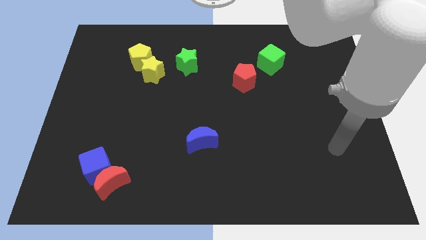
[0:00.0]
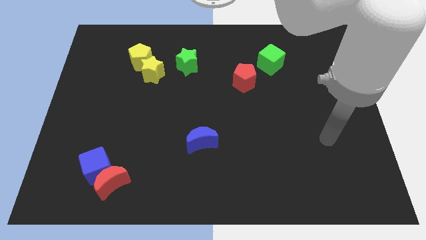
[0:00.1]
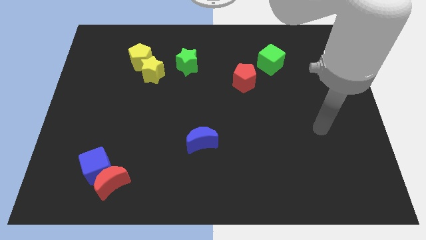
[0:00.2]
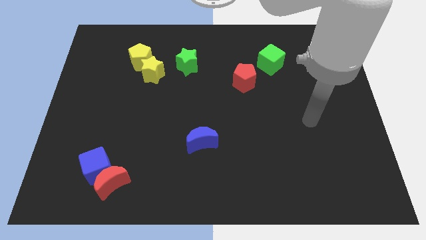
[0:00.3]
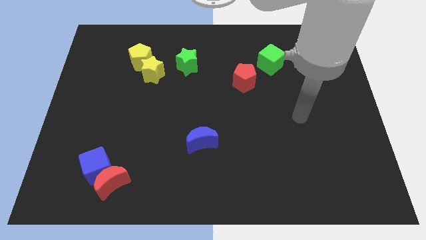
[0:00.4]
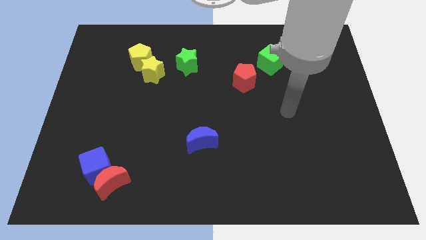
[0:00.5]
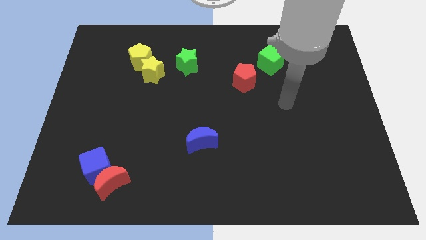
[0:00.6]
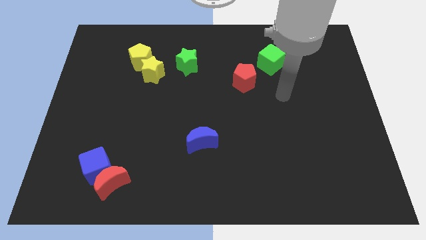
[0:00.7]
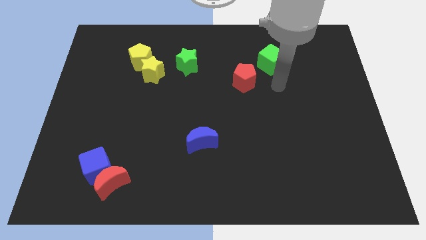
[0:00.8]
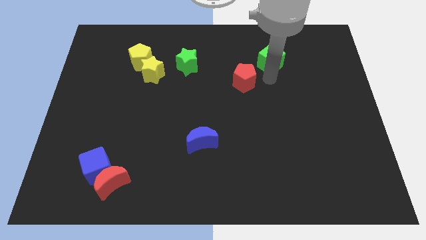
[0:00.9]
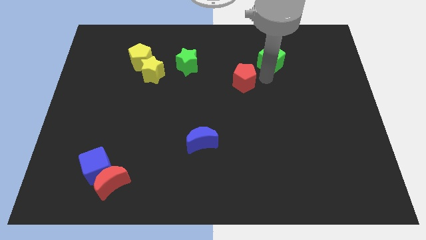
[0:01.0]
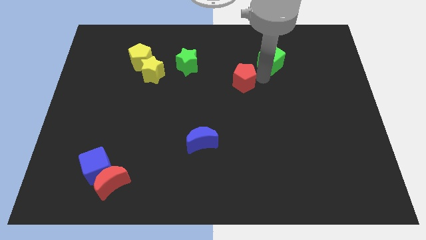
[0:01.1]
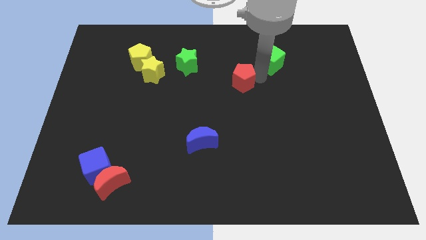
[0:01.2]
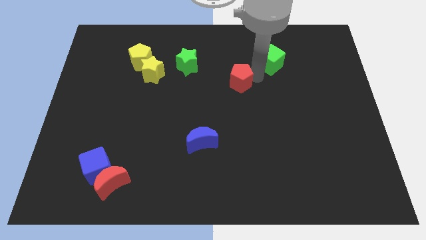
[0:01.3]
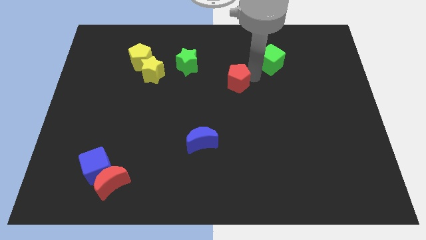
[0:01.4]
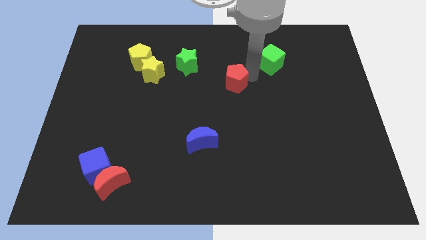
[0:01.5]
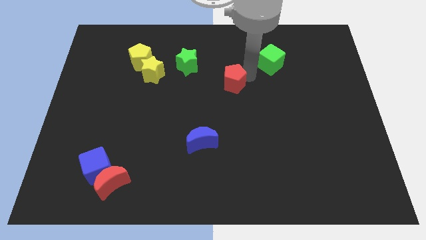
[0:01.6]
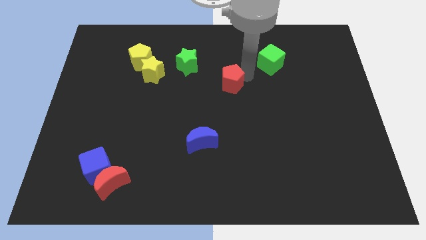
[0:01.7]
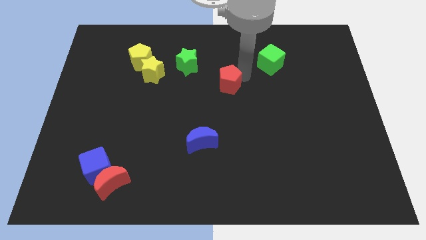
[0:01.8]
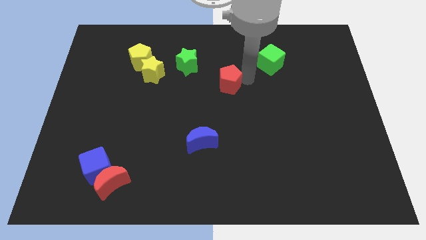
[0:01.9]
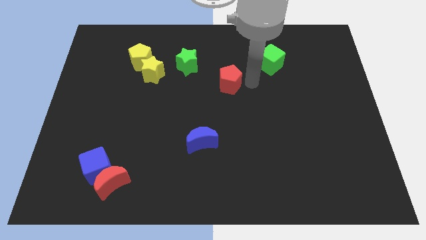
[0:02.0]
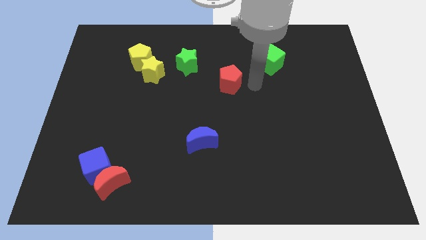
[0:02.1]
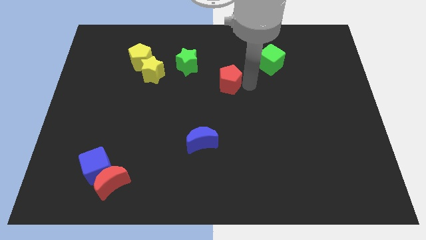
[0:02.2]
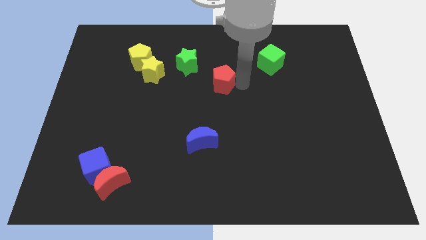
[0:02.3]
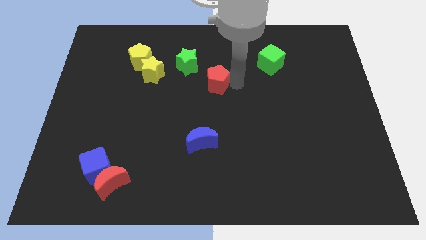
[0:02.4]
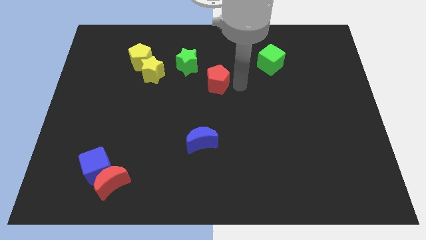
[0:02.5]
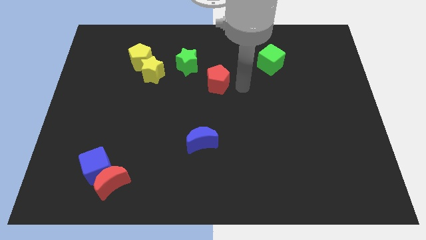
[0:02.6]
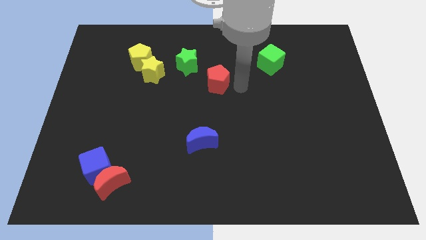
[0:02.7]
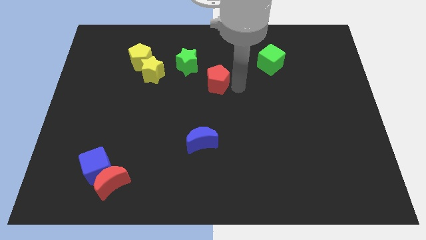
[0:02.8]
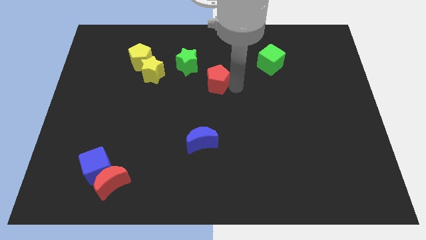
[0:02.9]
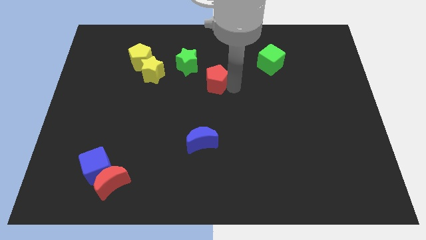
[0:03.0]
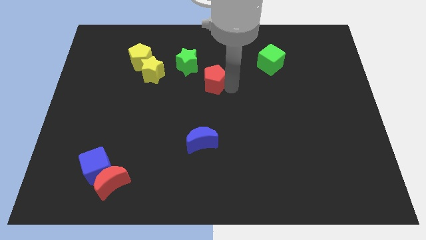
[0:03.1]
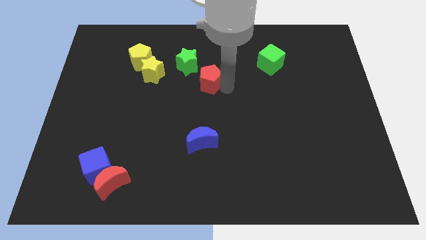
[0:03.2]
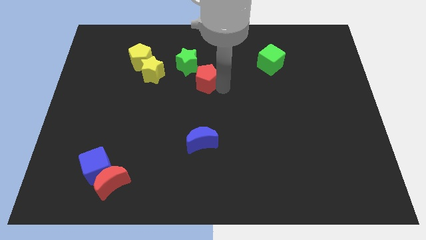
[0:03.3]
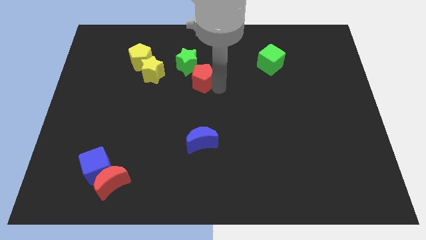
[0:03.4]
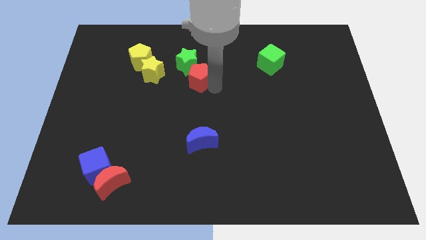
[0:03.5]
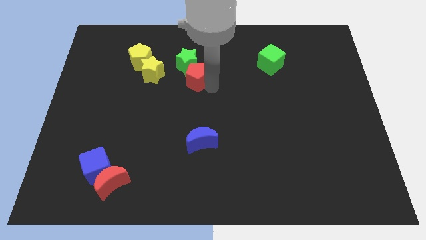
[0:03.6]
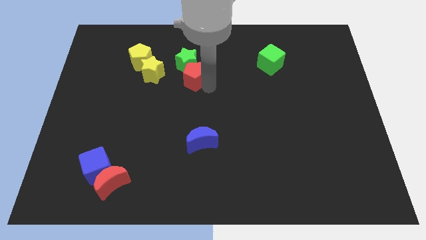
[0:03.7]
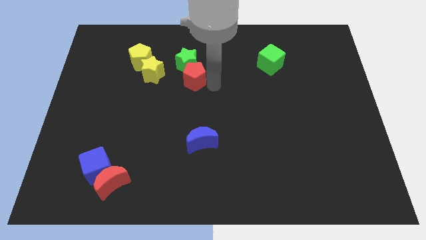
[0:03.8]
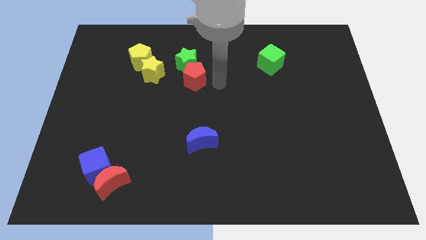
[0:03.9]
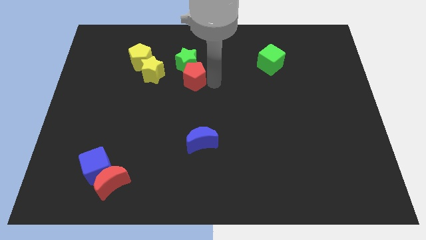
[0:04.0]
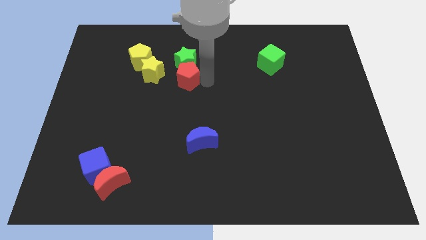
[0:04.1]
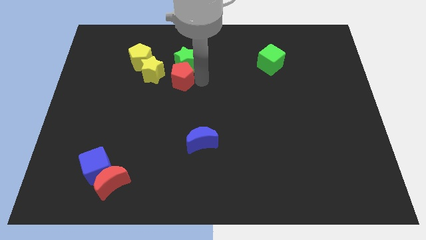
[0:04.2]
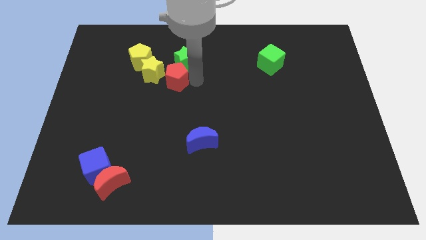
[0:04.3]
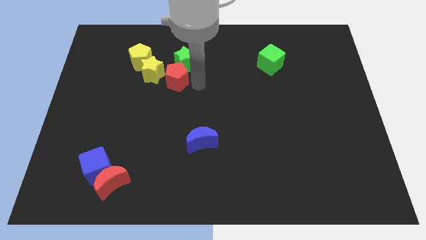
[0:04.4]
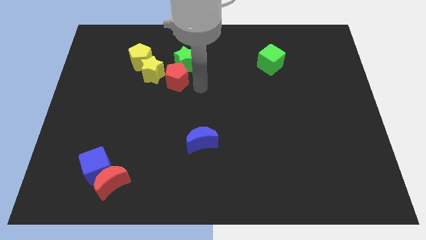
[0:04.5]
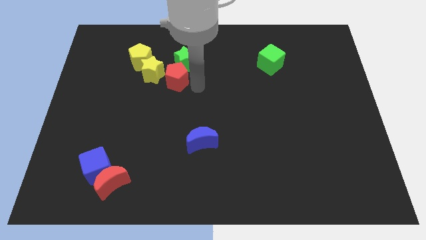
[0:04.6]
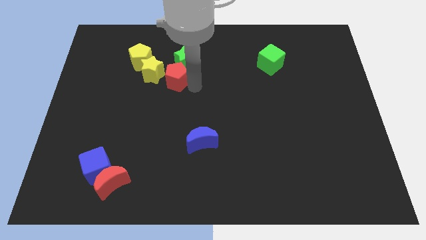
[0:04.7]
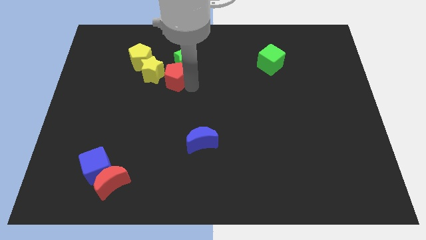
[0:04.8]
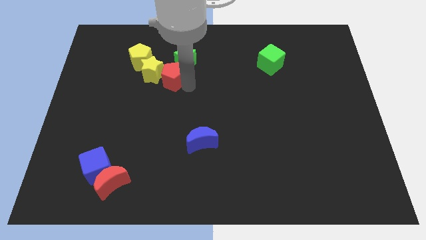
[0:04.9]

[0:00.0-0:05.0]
slide the red pentagon next to the yellow star

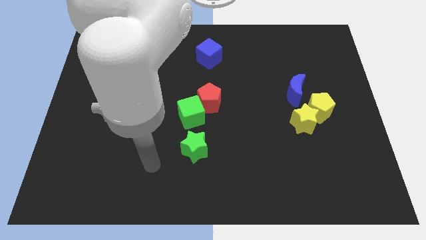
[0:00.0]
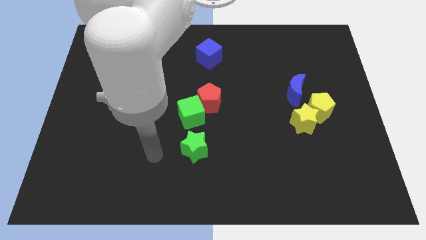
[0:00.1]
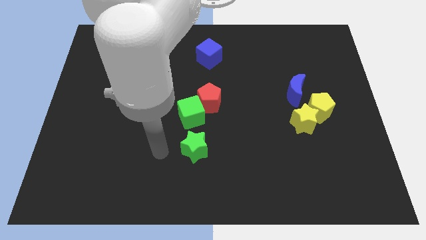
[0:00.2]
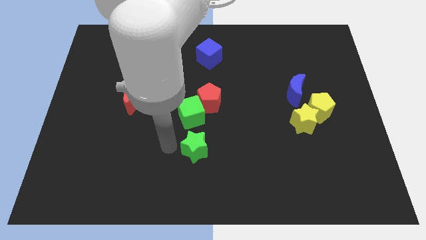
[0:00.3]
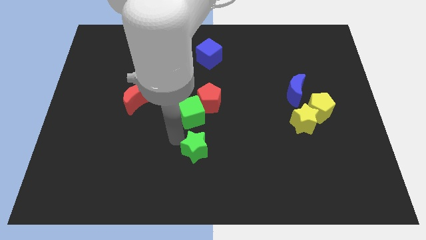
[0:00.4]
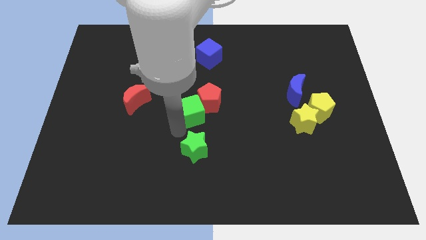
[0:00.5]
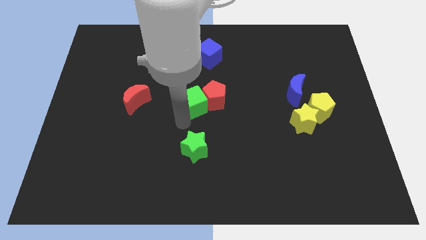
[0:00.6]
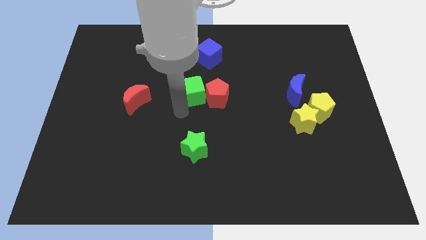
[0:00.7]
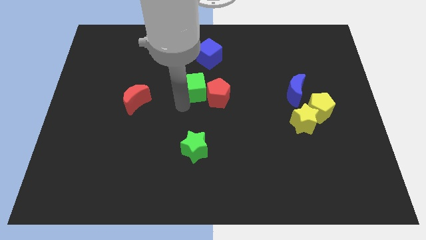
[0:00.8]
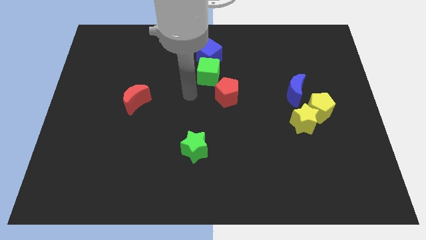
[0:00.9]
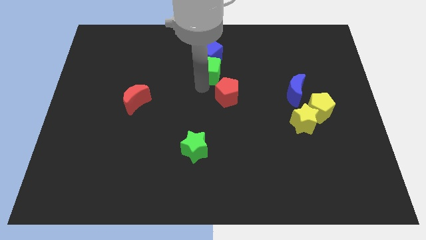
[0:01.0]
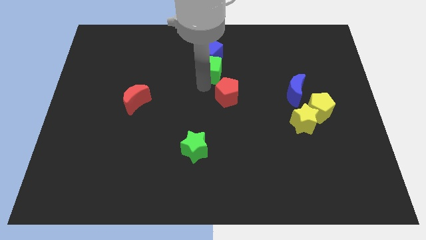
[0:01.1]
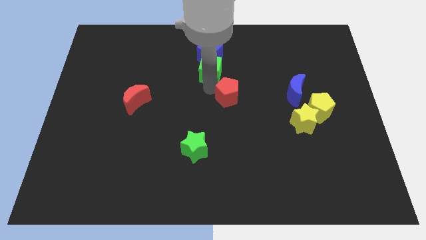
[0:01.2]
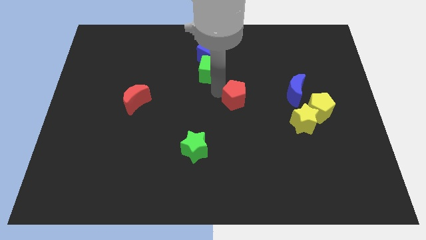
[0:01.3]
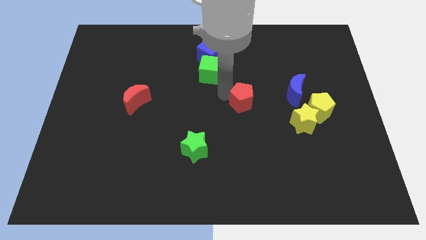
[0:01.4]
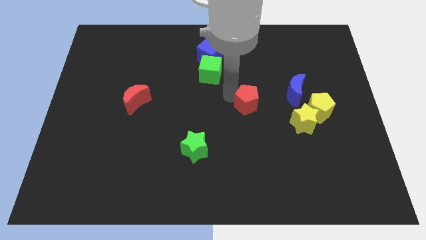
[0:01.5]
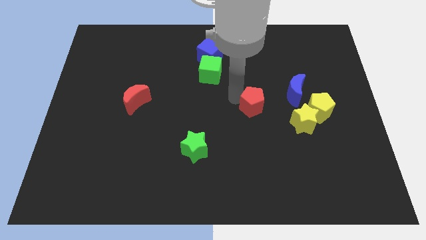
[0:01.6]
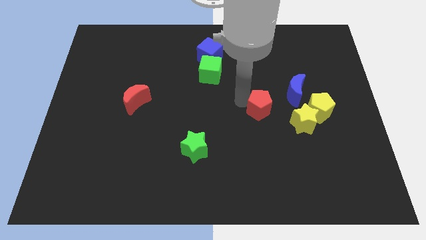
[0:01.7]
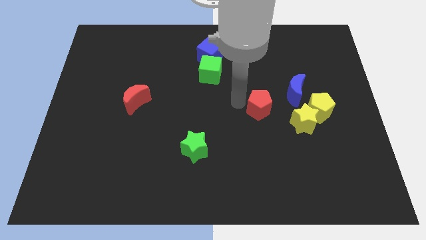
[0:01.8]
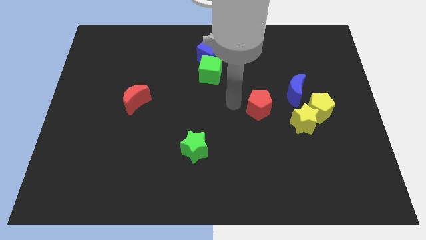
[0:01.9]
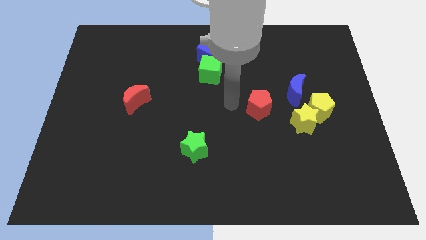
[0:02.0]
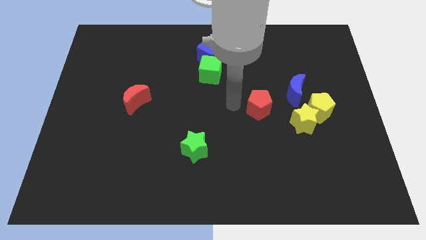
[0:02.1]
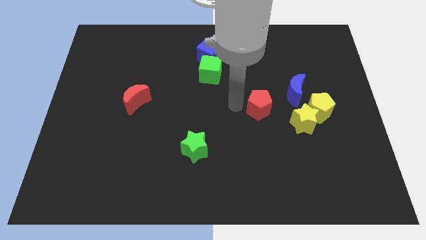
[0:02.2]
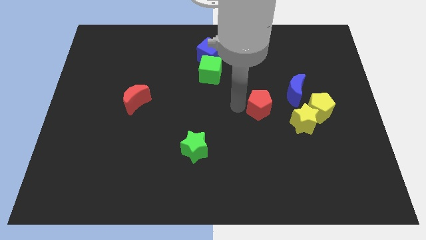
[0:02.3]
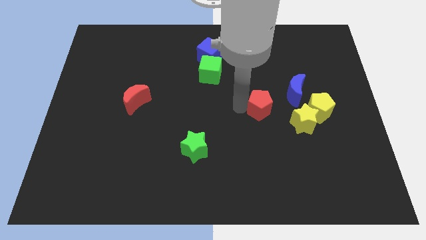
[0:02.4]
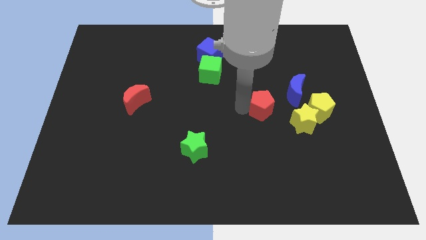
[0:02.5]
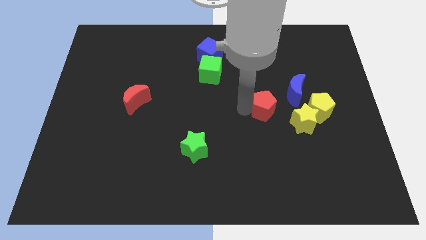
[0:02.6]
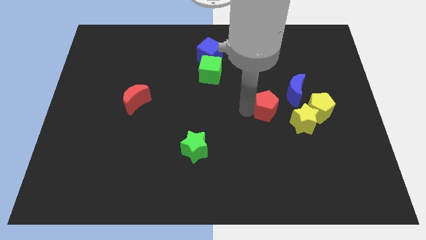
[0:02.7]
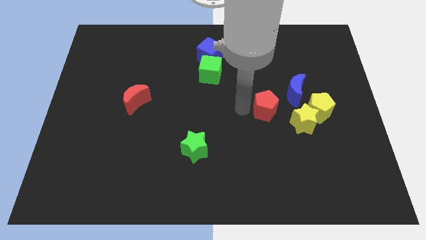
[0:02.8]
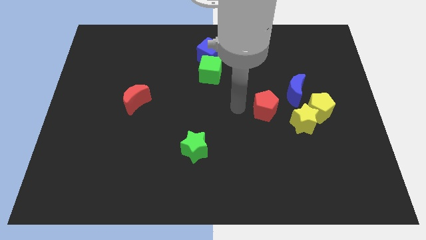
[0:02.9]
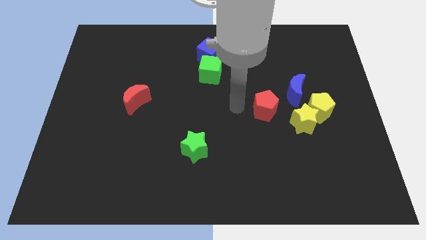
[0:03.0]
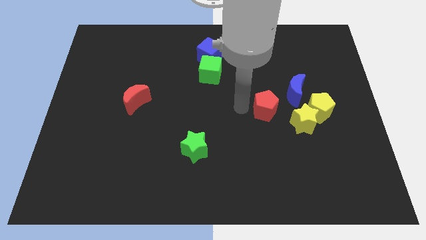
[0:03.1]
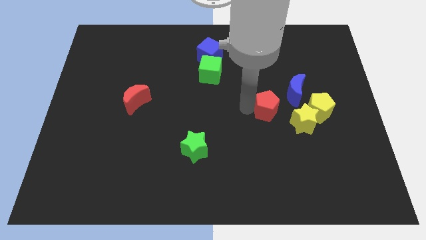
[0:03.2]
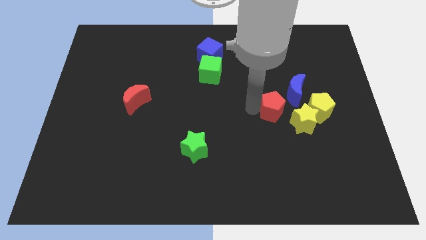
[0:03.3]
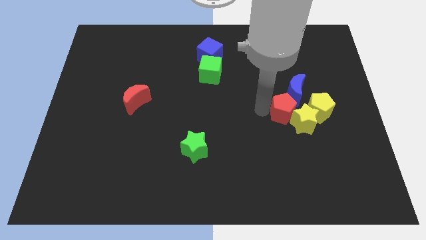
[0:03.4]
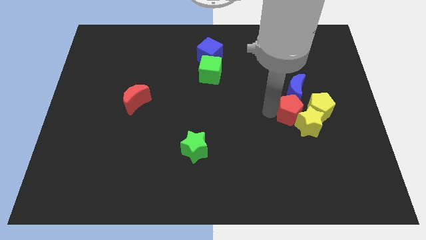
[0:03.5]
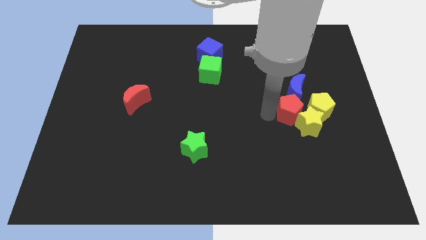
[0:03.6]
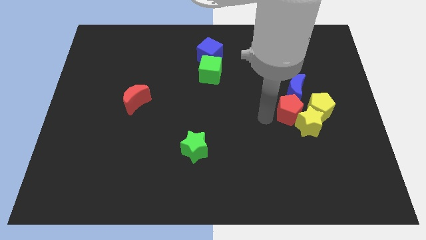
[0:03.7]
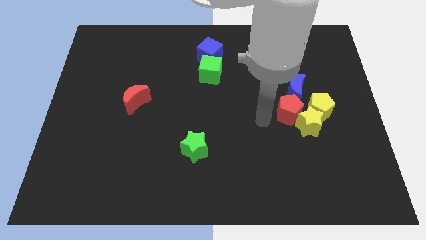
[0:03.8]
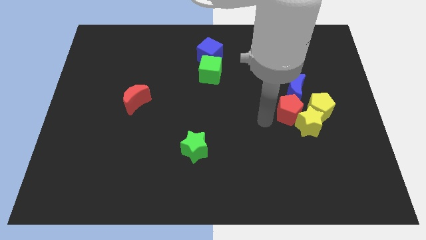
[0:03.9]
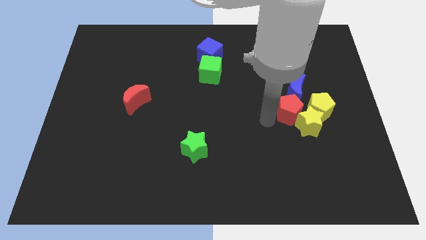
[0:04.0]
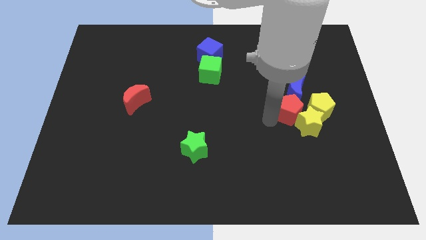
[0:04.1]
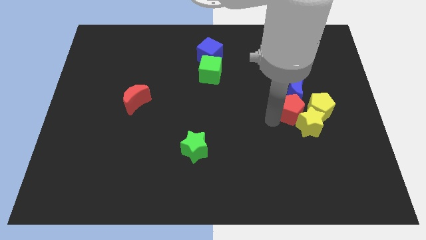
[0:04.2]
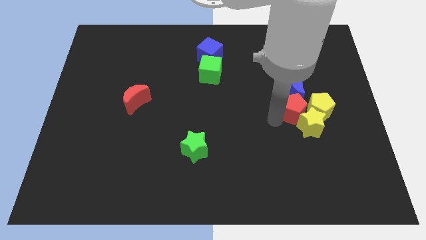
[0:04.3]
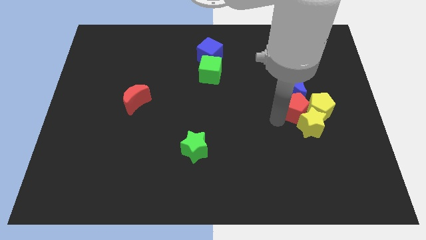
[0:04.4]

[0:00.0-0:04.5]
put the red pentagon towards the yellow pentagon
